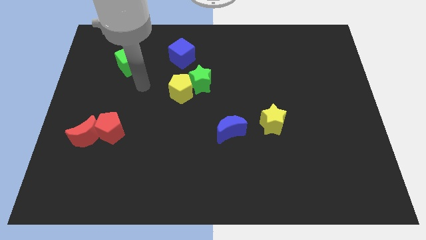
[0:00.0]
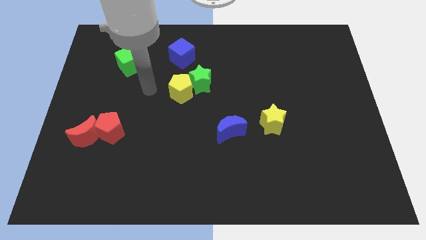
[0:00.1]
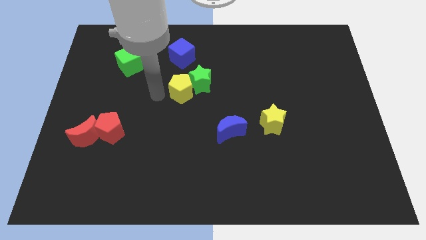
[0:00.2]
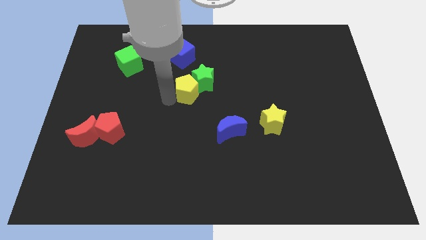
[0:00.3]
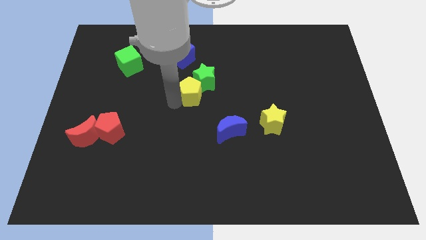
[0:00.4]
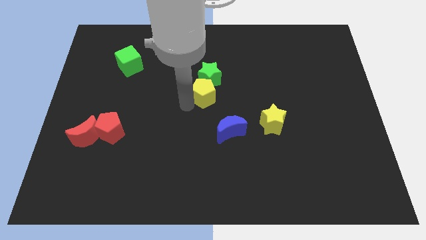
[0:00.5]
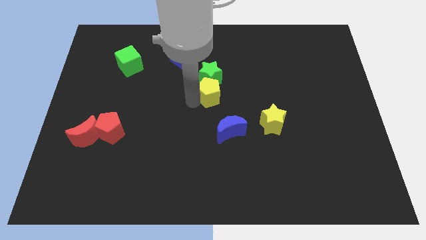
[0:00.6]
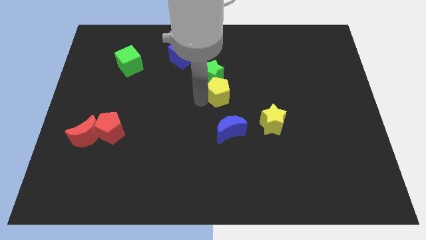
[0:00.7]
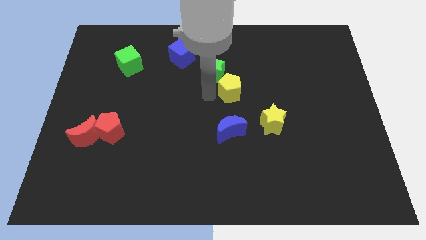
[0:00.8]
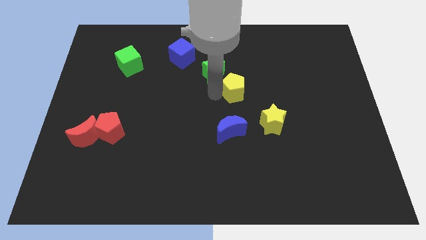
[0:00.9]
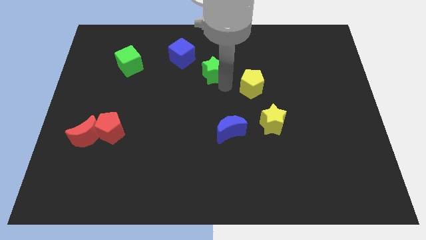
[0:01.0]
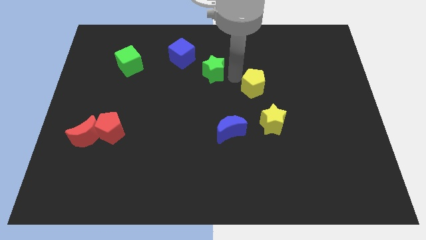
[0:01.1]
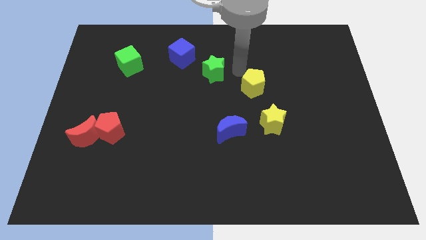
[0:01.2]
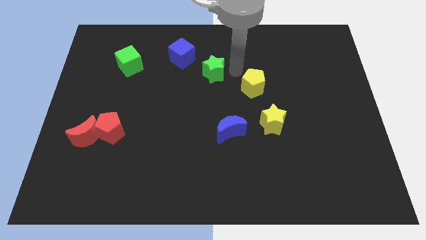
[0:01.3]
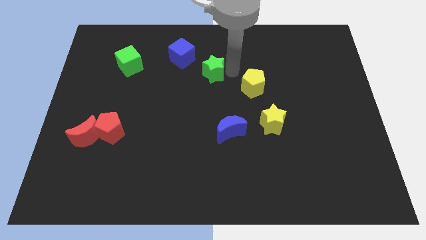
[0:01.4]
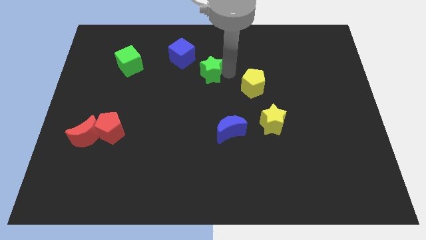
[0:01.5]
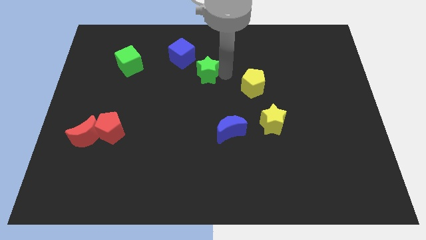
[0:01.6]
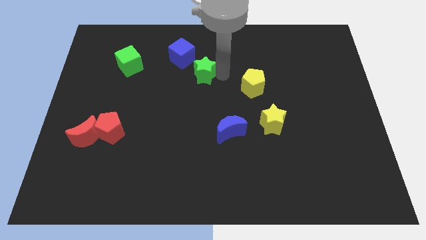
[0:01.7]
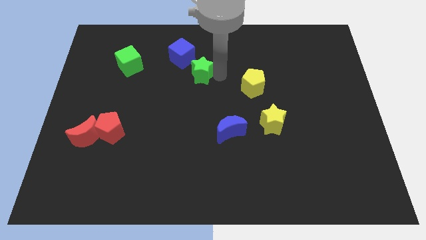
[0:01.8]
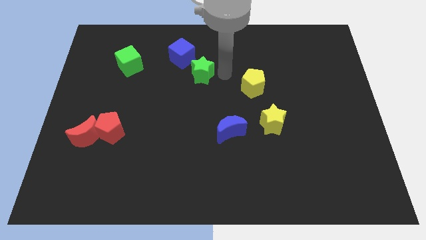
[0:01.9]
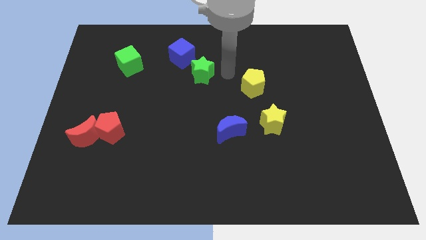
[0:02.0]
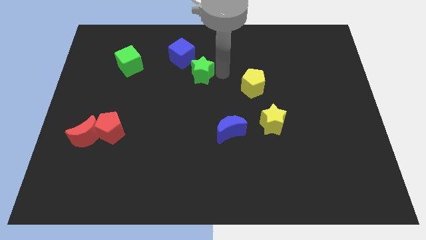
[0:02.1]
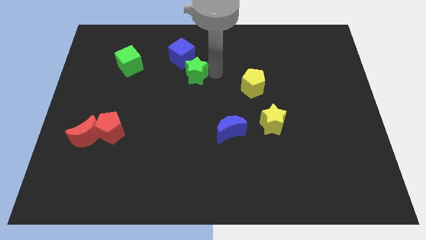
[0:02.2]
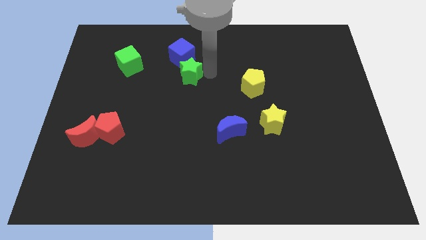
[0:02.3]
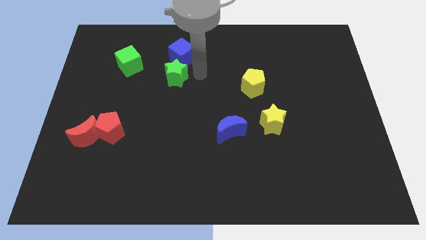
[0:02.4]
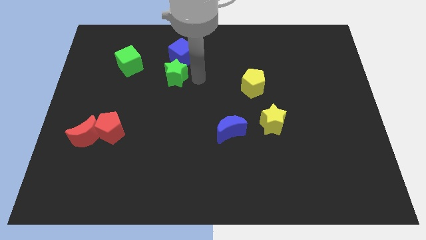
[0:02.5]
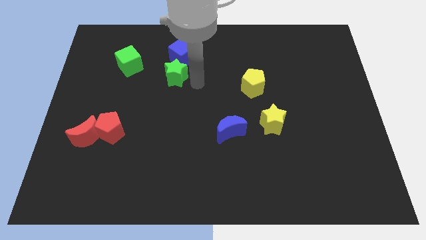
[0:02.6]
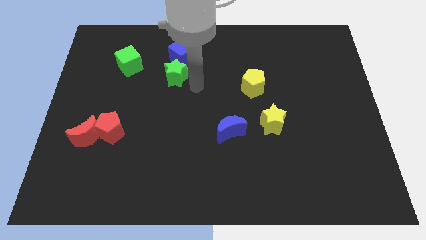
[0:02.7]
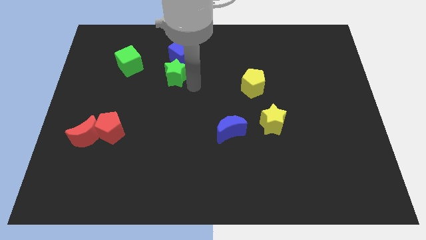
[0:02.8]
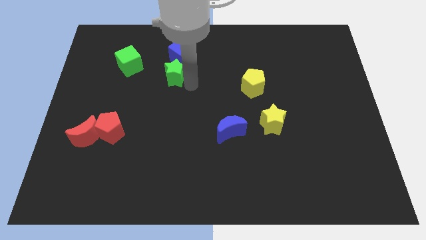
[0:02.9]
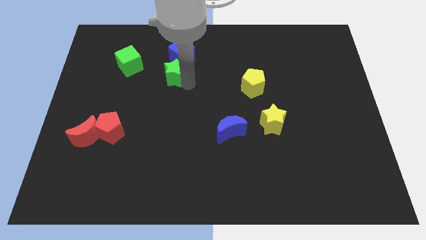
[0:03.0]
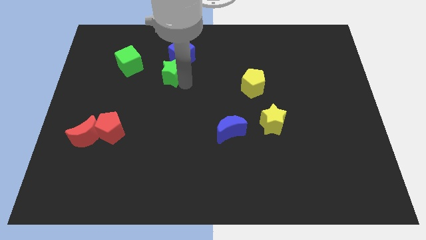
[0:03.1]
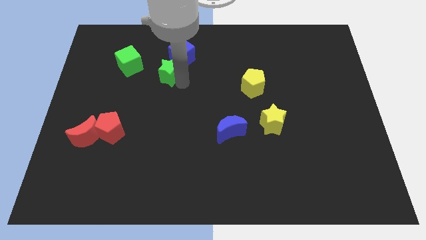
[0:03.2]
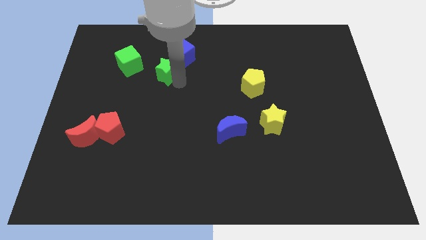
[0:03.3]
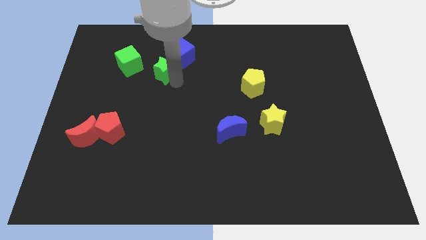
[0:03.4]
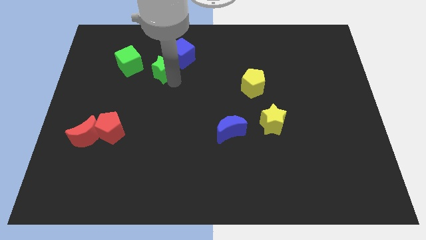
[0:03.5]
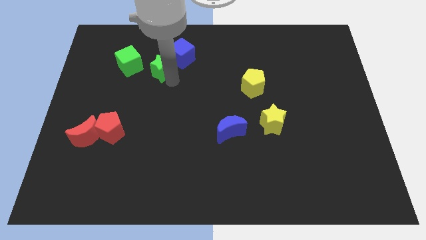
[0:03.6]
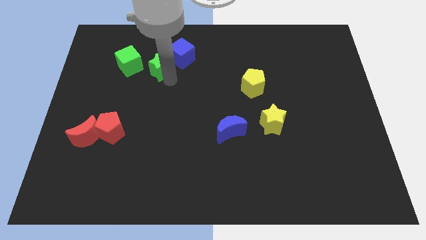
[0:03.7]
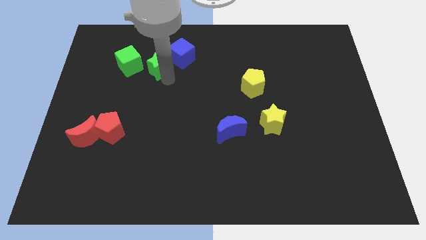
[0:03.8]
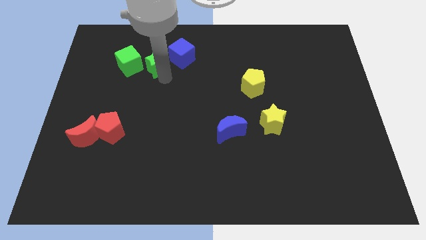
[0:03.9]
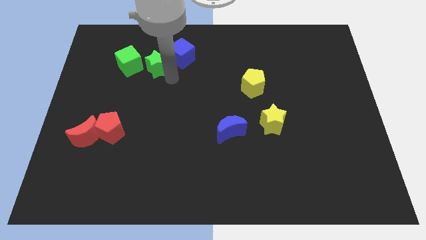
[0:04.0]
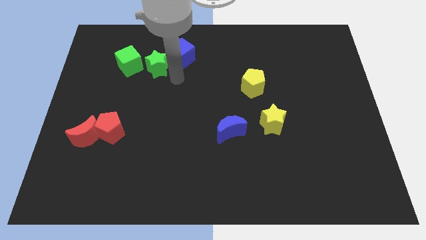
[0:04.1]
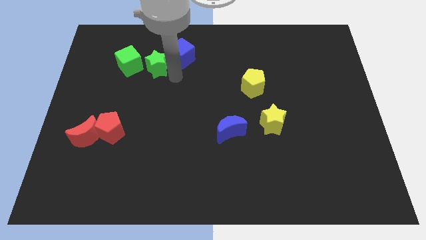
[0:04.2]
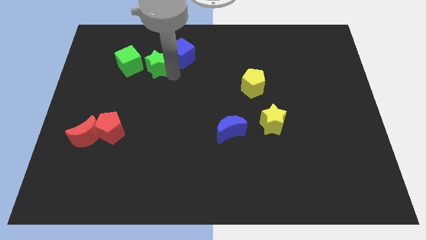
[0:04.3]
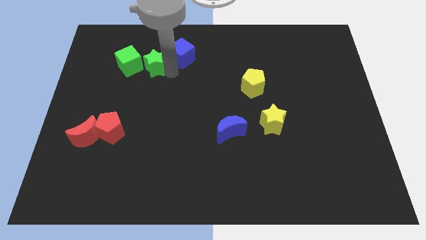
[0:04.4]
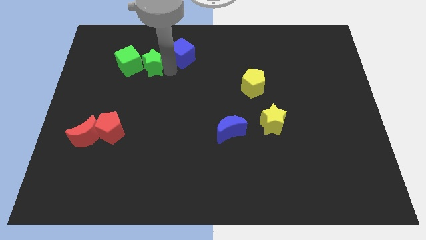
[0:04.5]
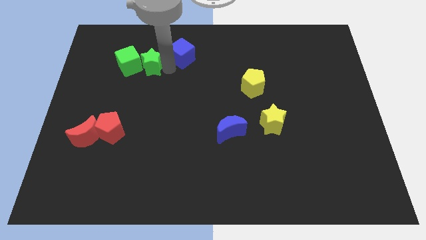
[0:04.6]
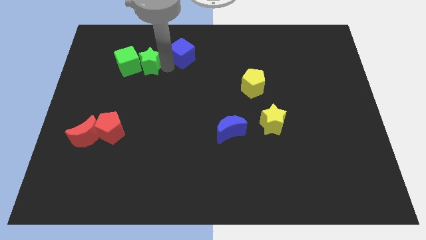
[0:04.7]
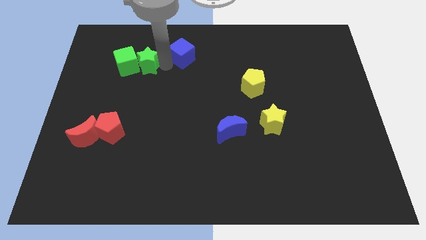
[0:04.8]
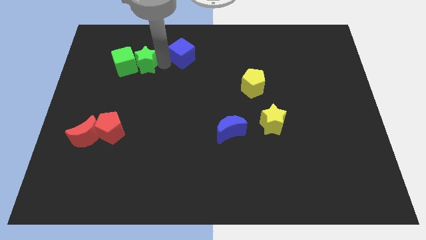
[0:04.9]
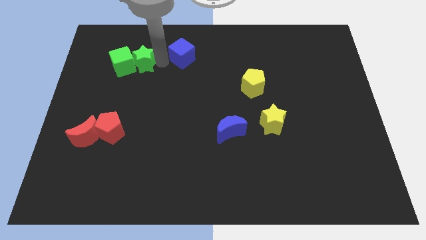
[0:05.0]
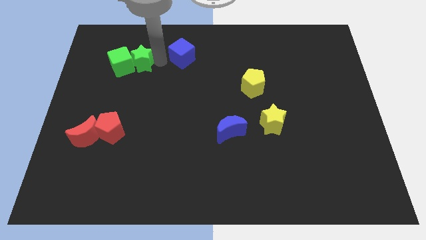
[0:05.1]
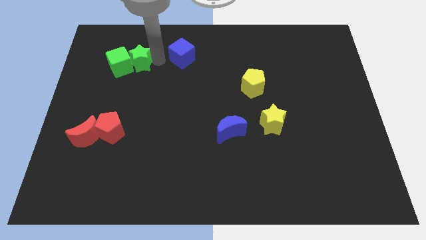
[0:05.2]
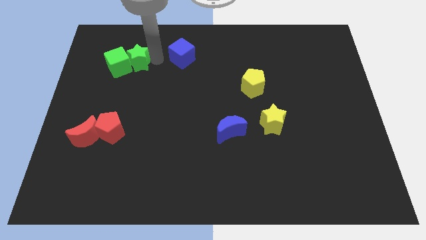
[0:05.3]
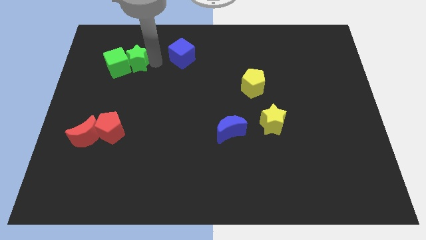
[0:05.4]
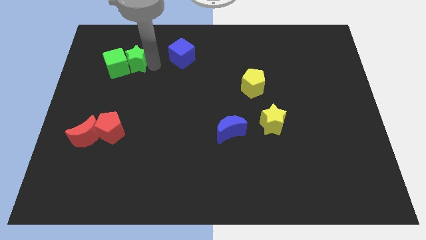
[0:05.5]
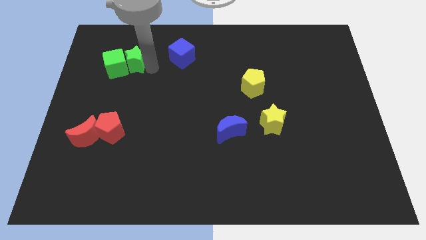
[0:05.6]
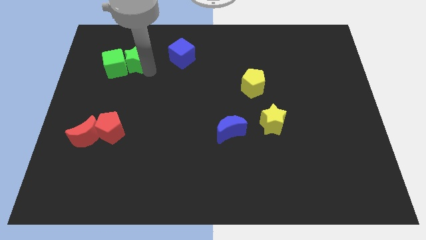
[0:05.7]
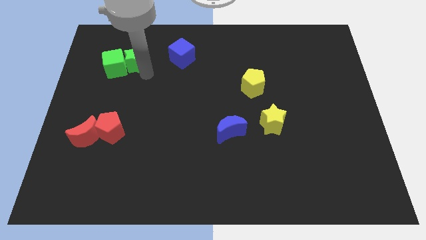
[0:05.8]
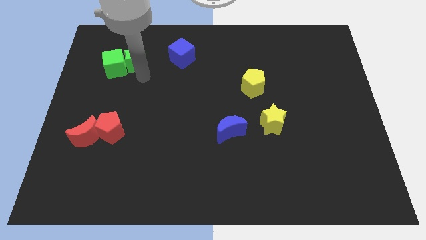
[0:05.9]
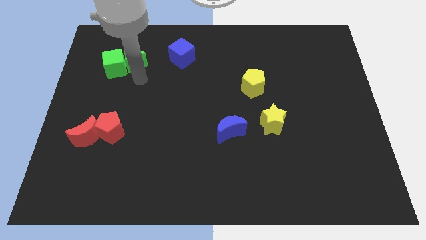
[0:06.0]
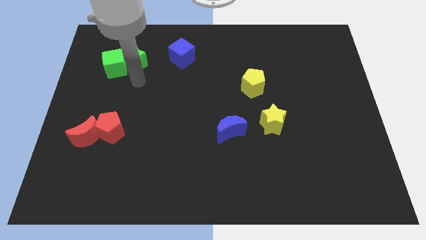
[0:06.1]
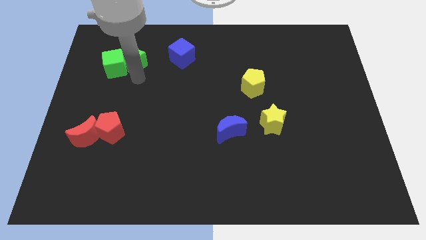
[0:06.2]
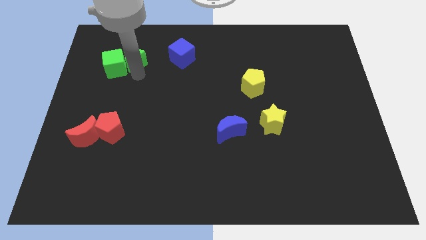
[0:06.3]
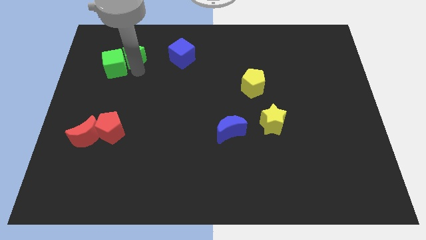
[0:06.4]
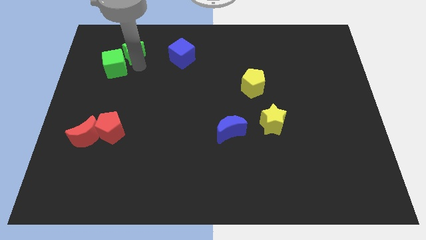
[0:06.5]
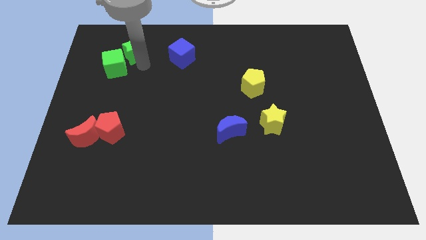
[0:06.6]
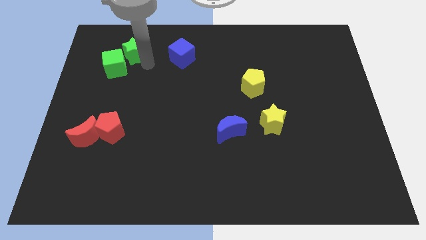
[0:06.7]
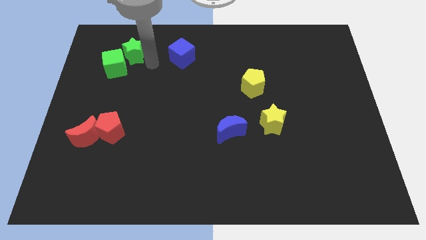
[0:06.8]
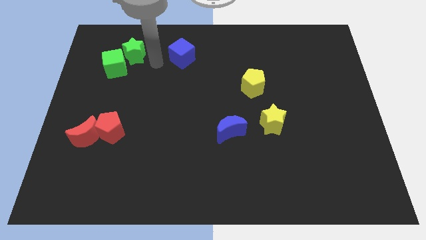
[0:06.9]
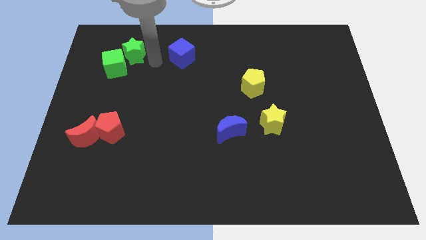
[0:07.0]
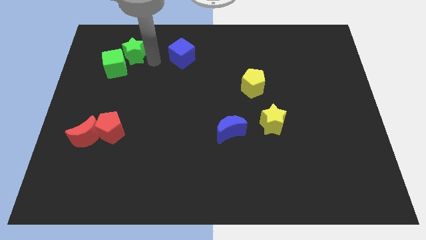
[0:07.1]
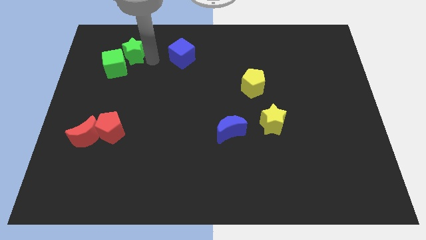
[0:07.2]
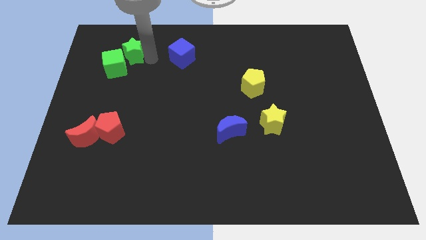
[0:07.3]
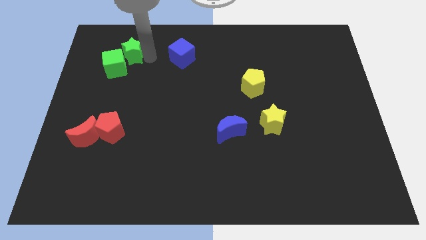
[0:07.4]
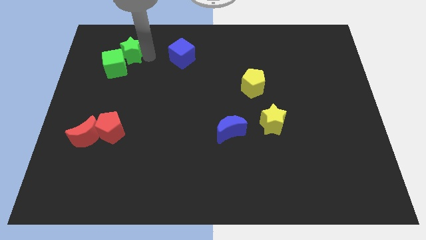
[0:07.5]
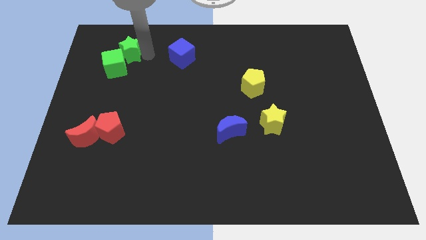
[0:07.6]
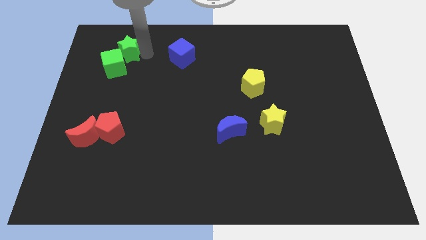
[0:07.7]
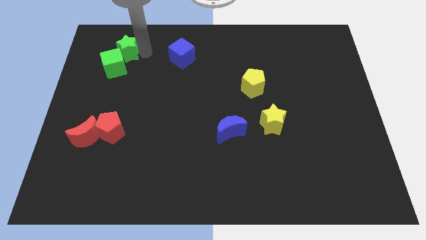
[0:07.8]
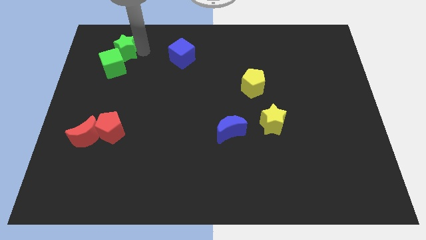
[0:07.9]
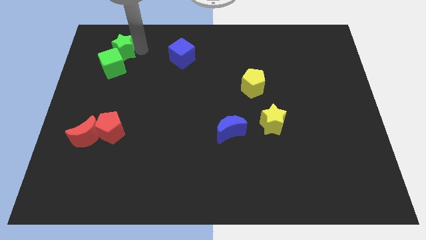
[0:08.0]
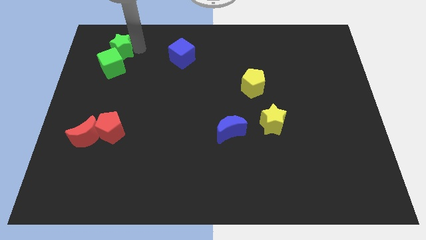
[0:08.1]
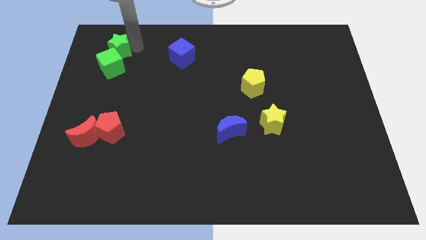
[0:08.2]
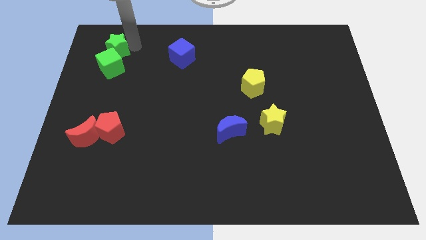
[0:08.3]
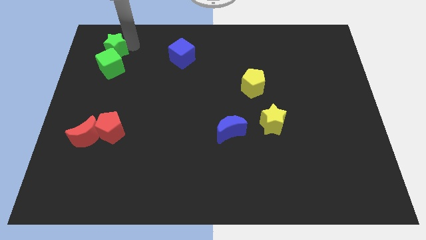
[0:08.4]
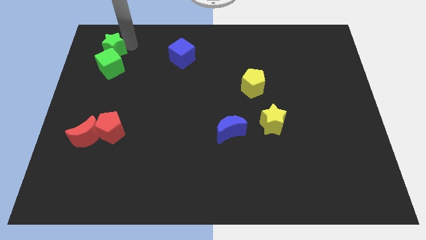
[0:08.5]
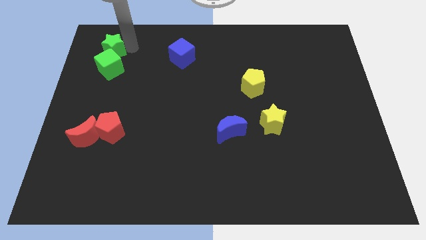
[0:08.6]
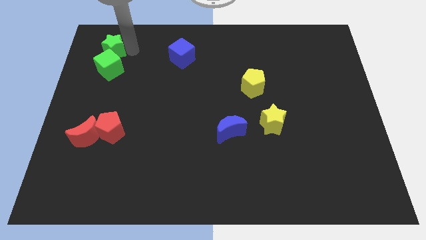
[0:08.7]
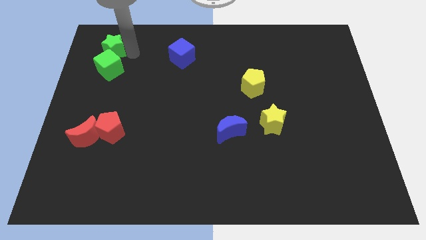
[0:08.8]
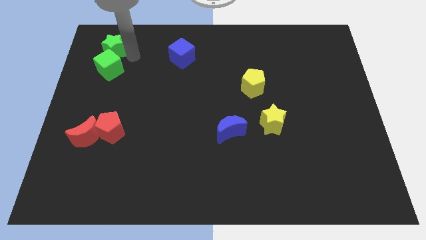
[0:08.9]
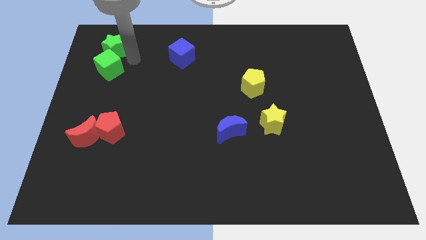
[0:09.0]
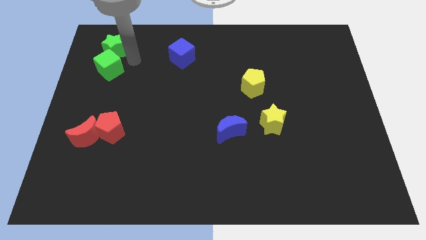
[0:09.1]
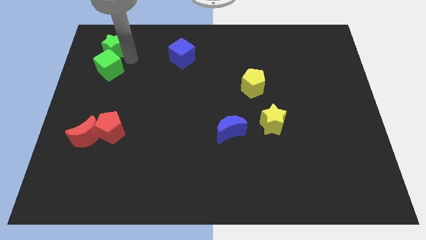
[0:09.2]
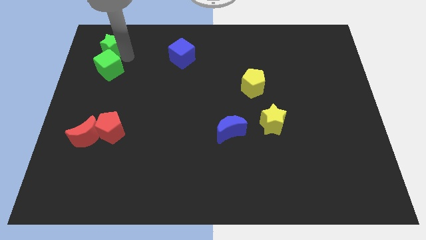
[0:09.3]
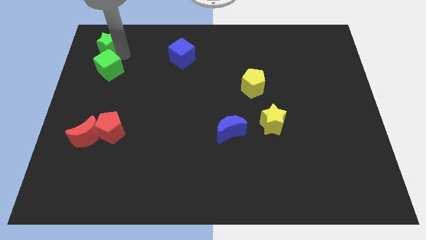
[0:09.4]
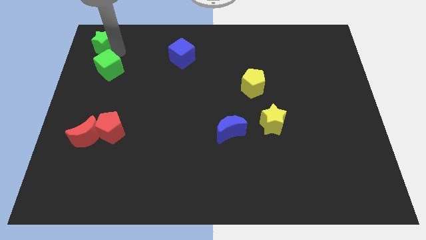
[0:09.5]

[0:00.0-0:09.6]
move the green star to the top left
